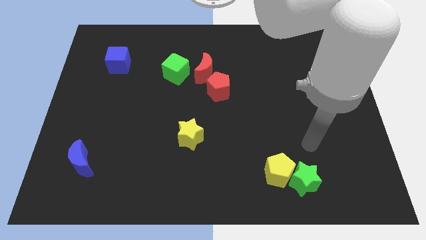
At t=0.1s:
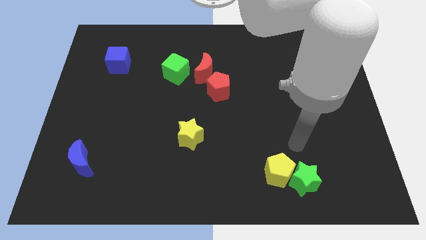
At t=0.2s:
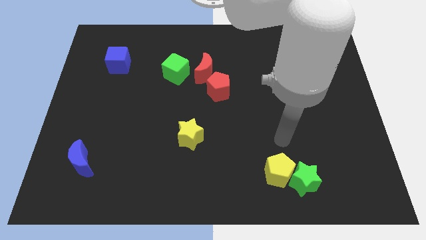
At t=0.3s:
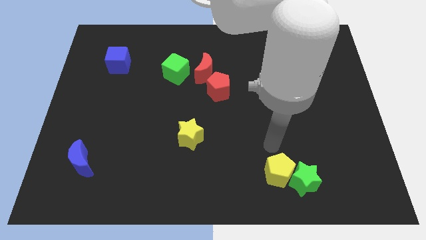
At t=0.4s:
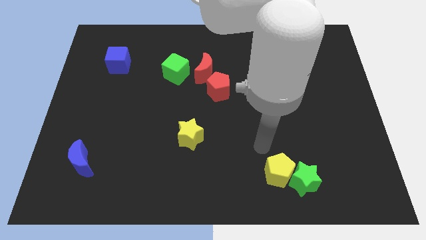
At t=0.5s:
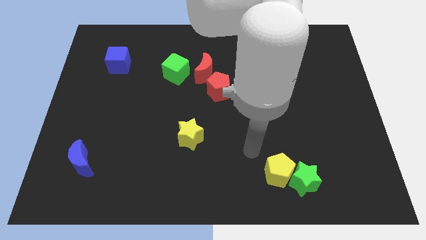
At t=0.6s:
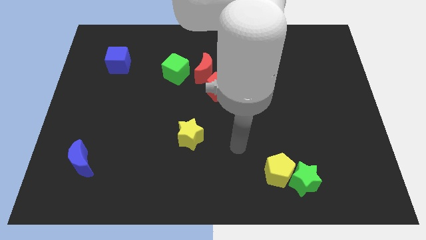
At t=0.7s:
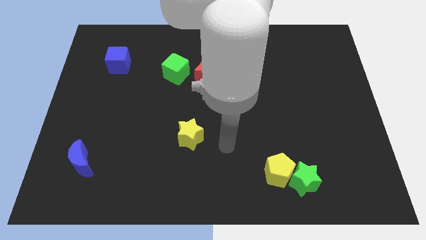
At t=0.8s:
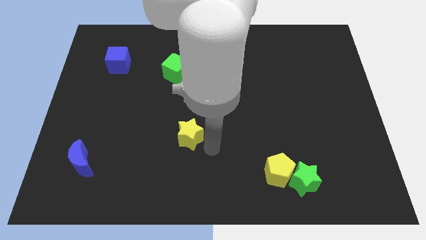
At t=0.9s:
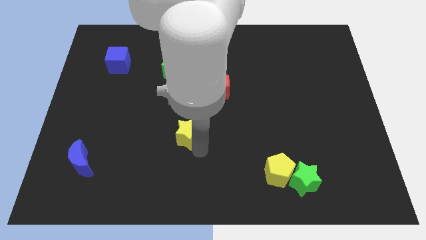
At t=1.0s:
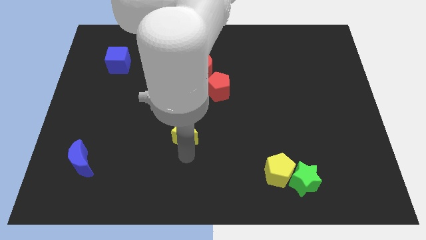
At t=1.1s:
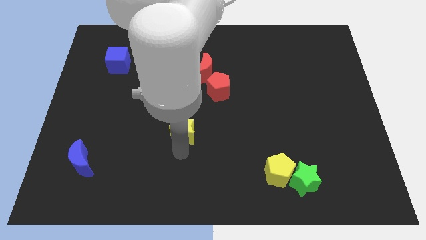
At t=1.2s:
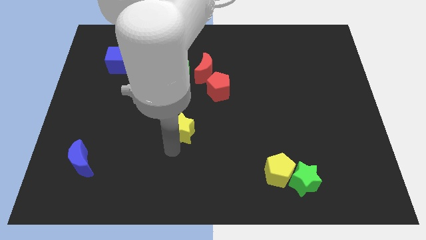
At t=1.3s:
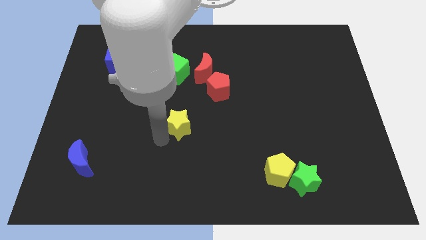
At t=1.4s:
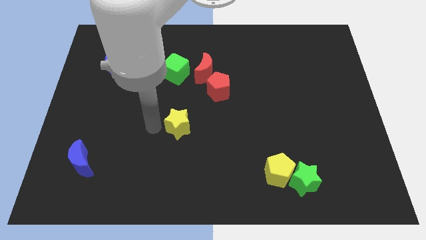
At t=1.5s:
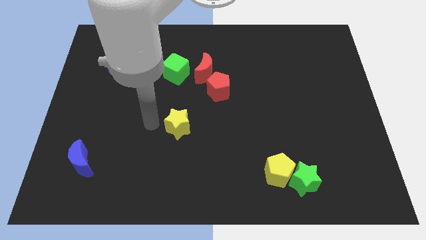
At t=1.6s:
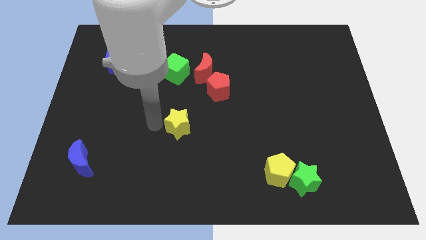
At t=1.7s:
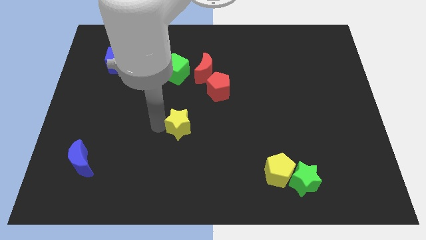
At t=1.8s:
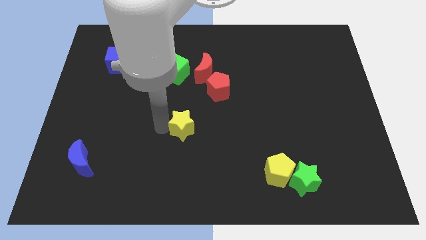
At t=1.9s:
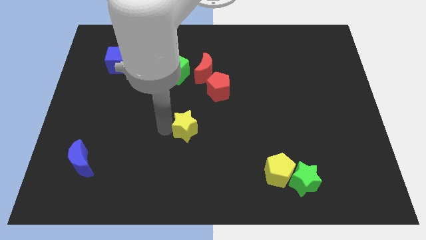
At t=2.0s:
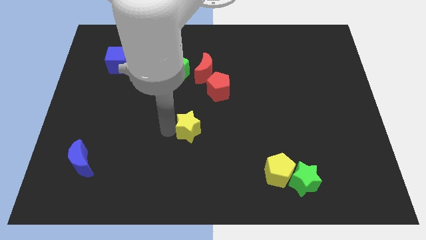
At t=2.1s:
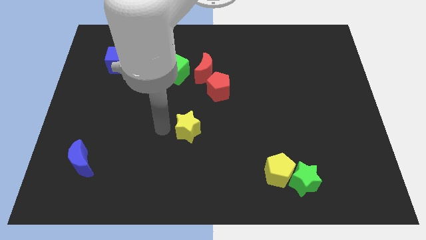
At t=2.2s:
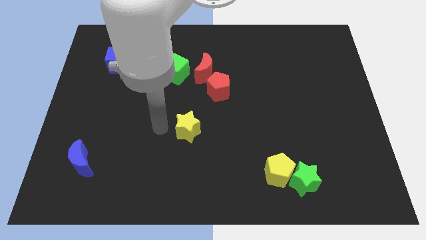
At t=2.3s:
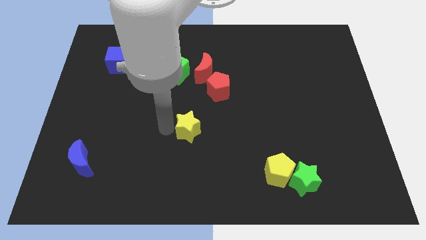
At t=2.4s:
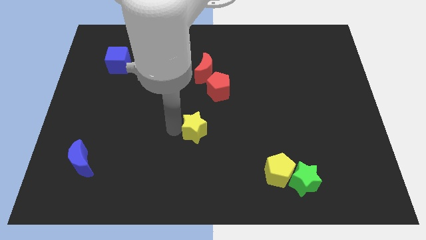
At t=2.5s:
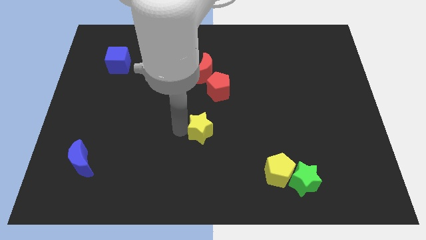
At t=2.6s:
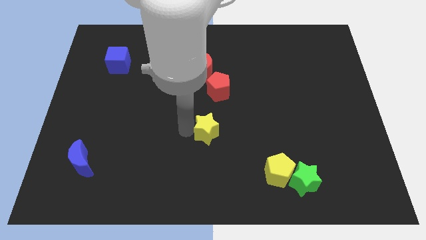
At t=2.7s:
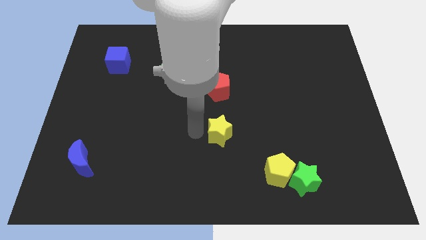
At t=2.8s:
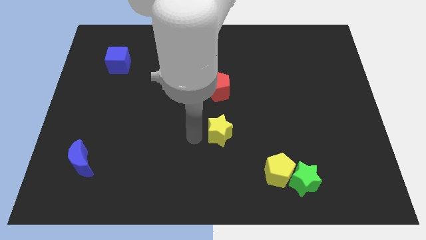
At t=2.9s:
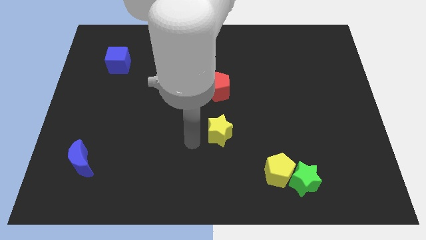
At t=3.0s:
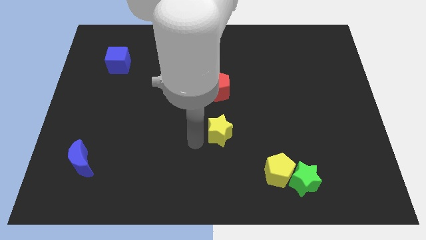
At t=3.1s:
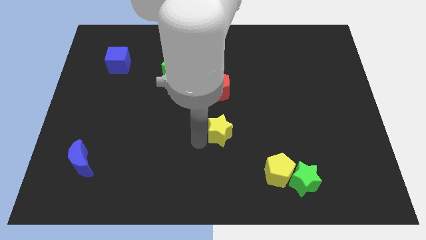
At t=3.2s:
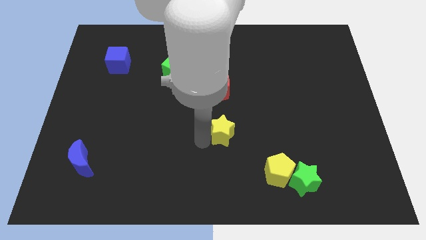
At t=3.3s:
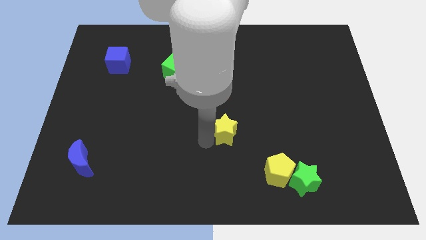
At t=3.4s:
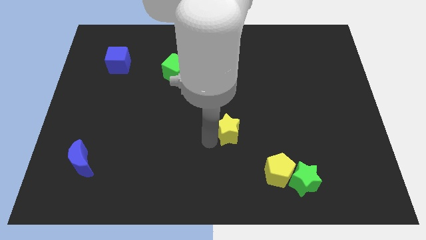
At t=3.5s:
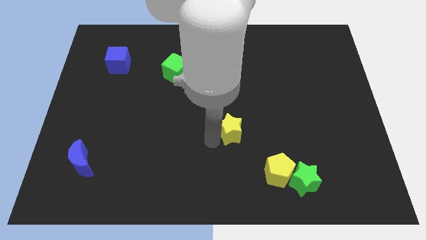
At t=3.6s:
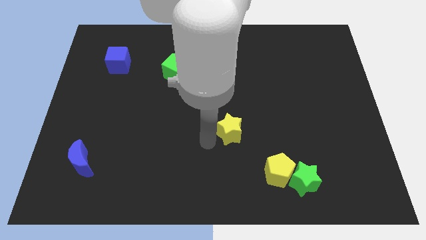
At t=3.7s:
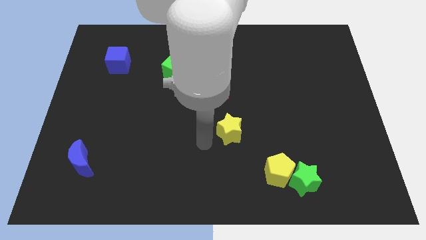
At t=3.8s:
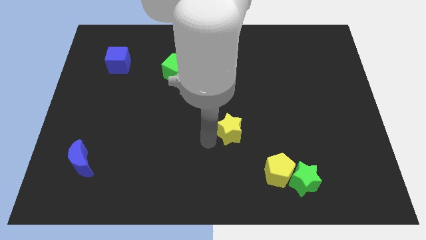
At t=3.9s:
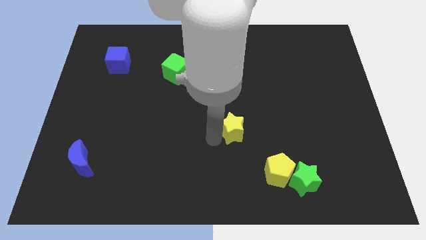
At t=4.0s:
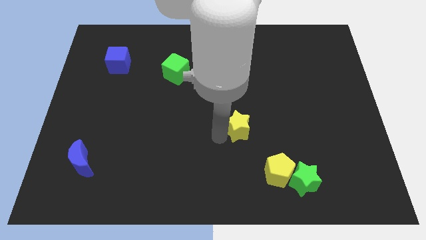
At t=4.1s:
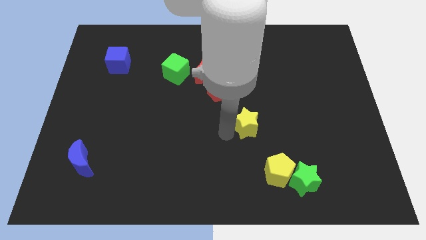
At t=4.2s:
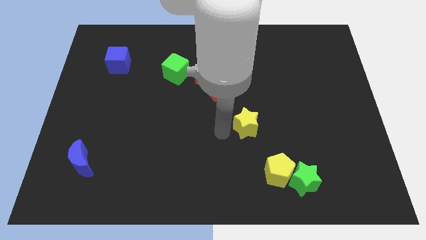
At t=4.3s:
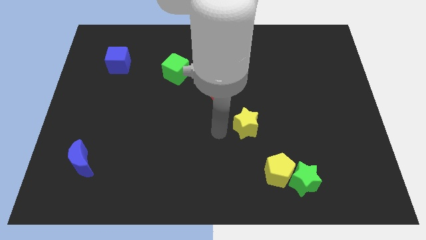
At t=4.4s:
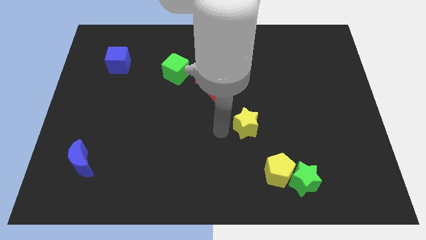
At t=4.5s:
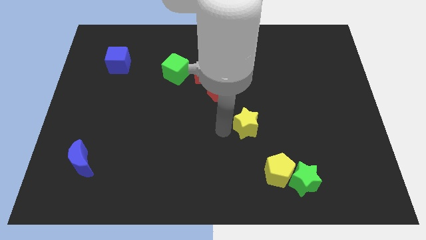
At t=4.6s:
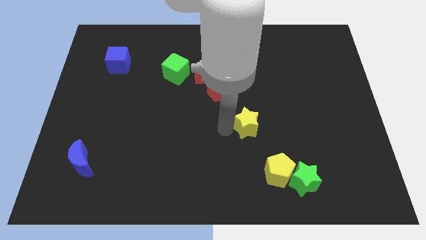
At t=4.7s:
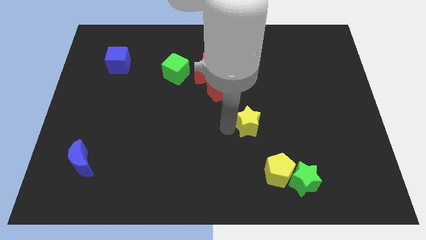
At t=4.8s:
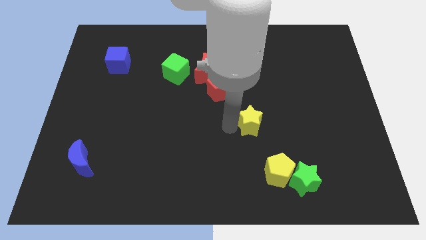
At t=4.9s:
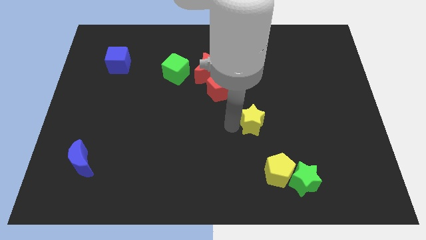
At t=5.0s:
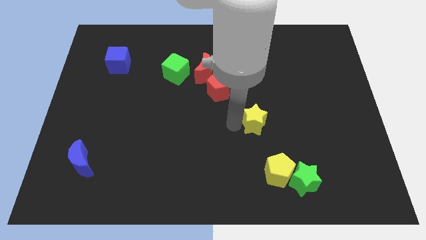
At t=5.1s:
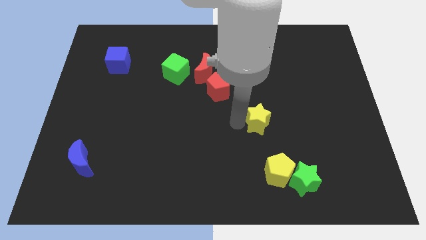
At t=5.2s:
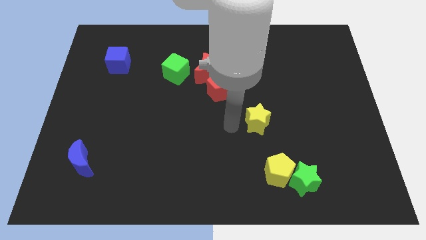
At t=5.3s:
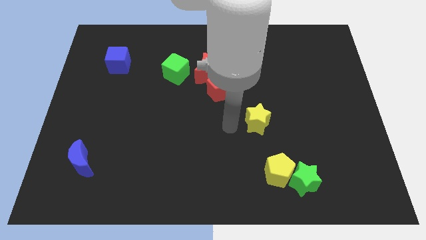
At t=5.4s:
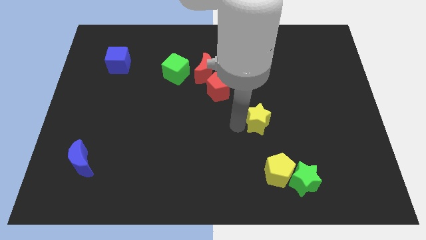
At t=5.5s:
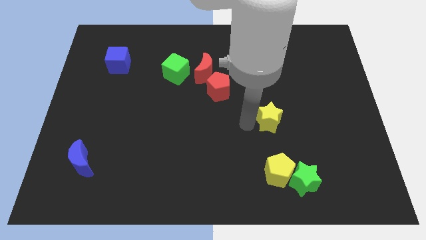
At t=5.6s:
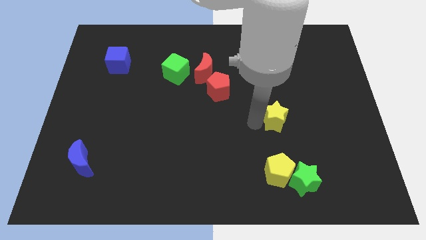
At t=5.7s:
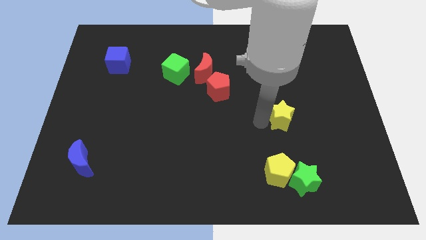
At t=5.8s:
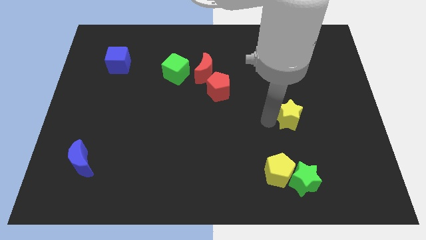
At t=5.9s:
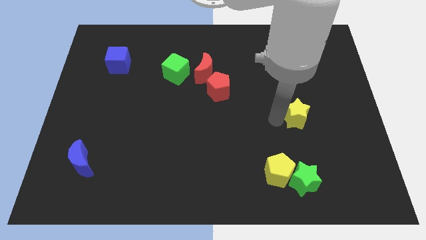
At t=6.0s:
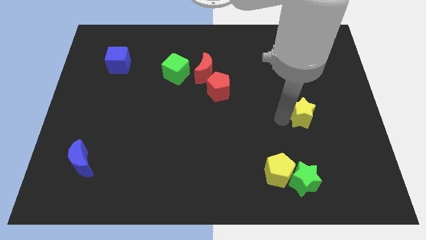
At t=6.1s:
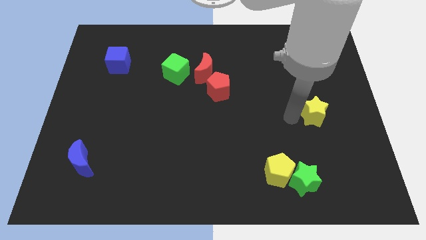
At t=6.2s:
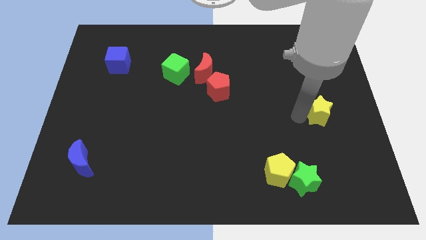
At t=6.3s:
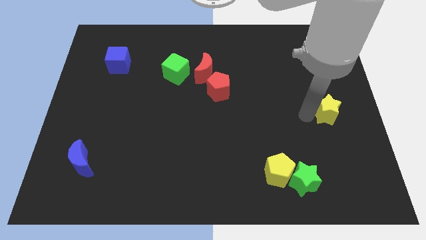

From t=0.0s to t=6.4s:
push the yellow star to the center right
